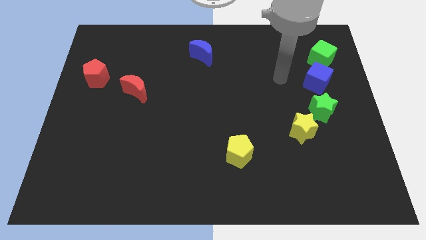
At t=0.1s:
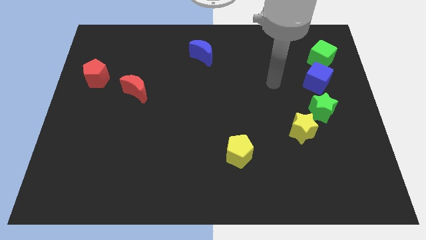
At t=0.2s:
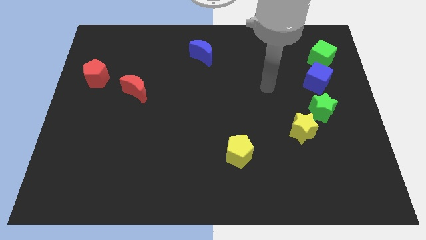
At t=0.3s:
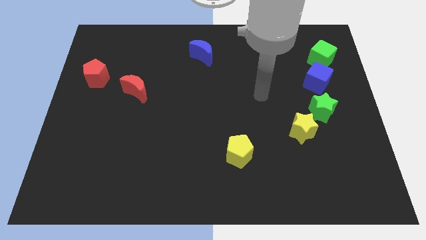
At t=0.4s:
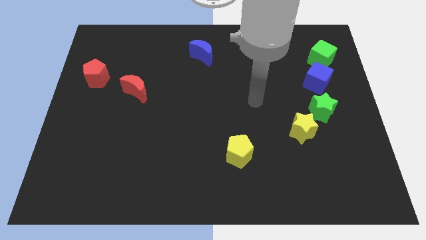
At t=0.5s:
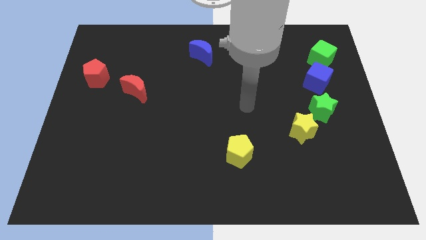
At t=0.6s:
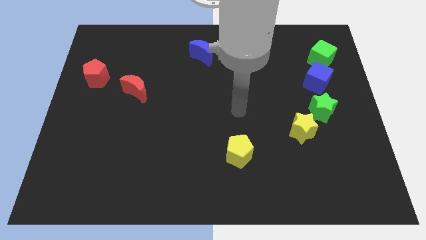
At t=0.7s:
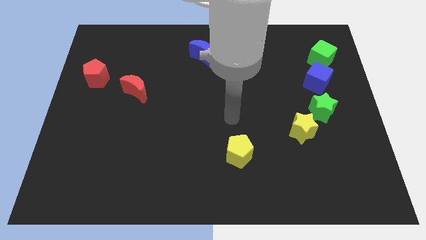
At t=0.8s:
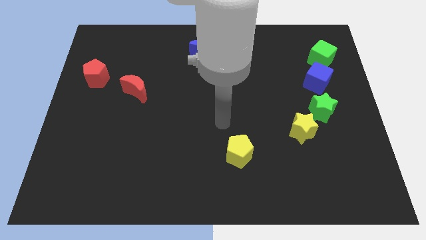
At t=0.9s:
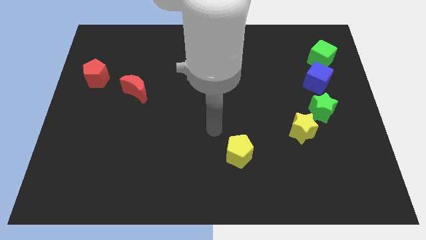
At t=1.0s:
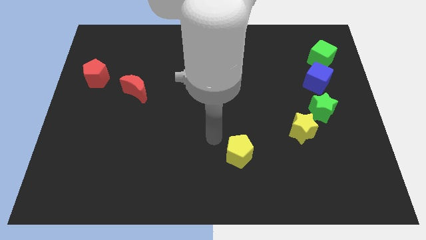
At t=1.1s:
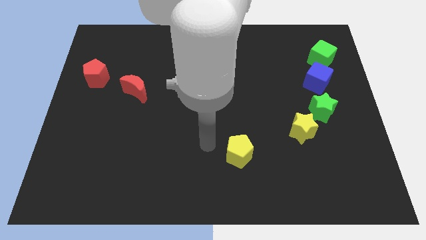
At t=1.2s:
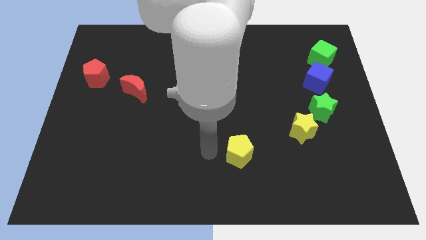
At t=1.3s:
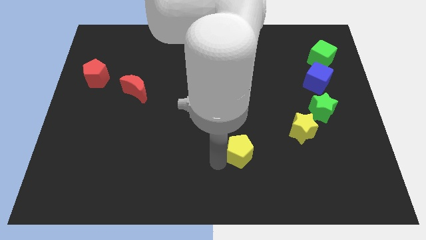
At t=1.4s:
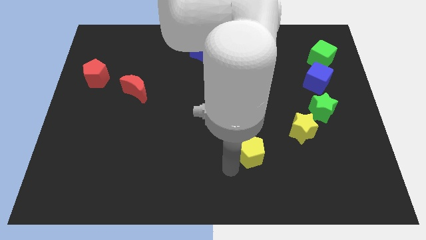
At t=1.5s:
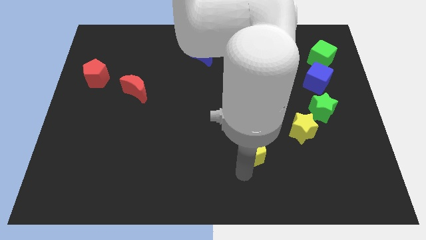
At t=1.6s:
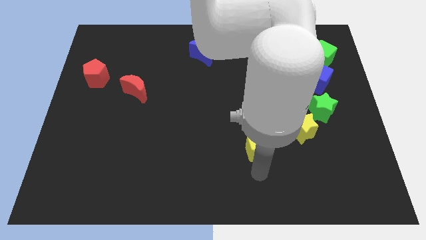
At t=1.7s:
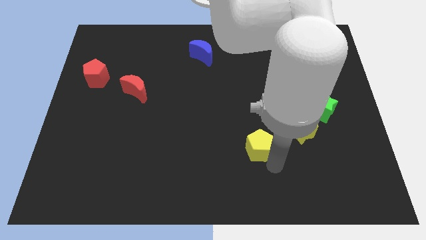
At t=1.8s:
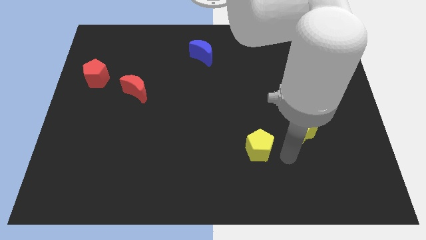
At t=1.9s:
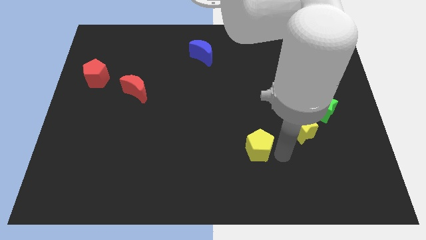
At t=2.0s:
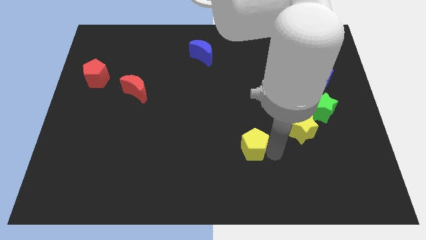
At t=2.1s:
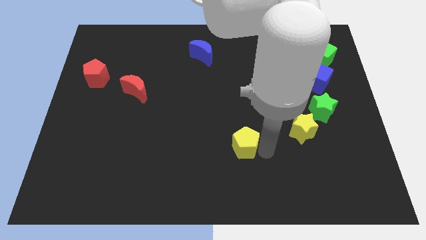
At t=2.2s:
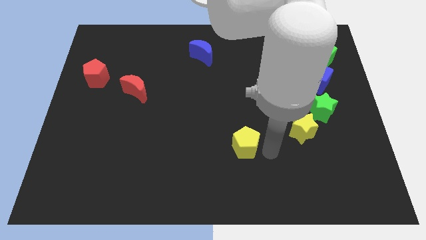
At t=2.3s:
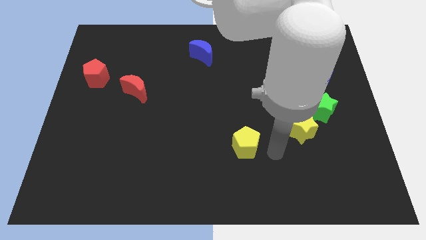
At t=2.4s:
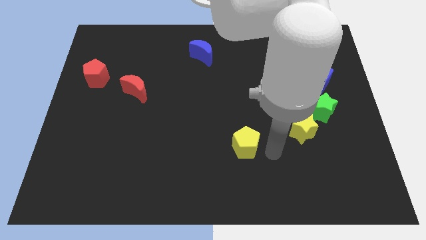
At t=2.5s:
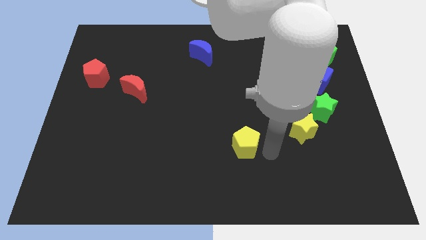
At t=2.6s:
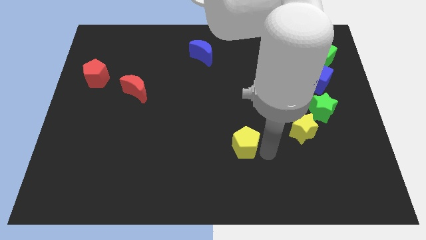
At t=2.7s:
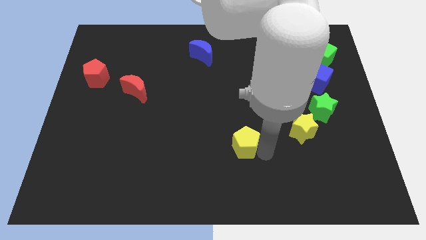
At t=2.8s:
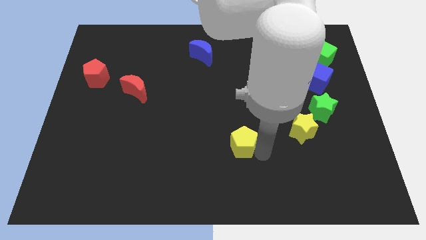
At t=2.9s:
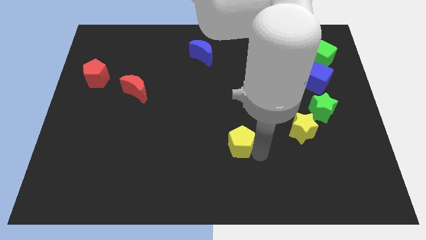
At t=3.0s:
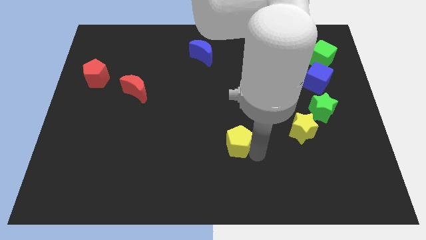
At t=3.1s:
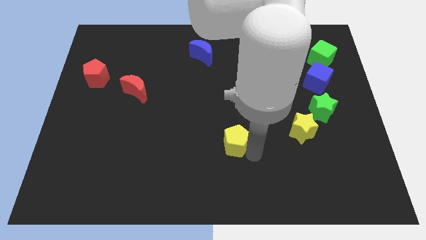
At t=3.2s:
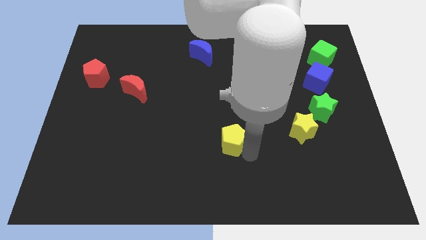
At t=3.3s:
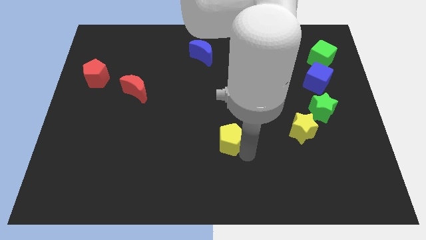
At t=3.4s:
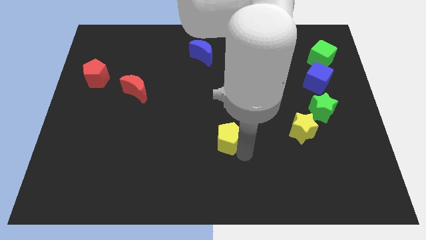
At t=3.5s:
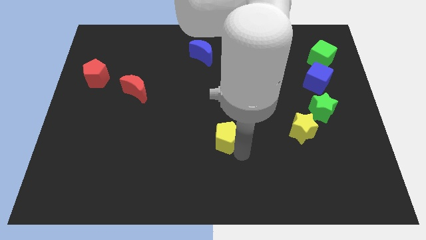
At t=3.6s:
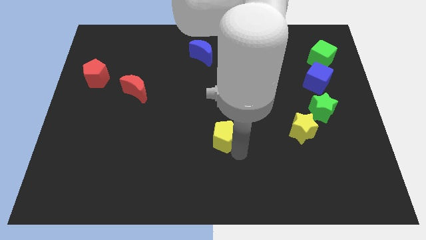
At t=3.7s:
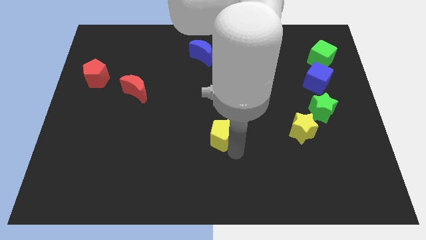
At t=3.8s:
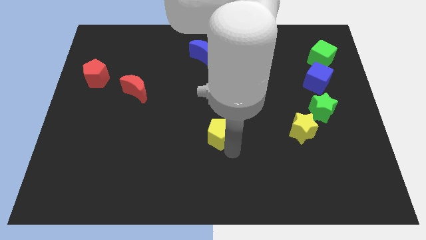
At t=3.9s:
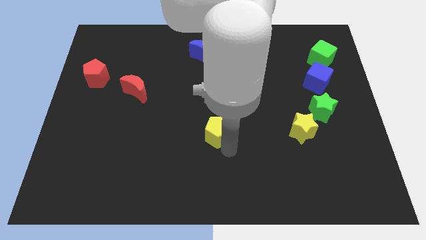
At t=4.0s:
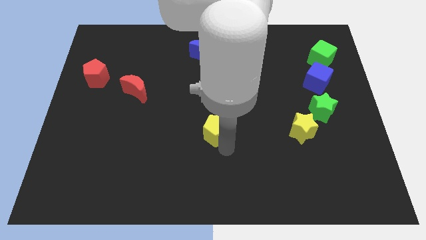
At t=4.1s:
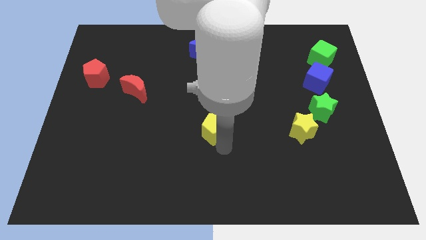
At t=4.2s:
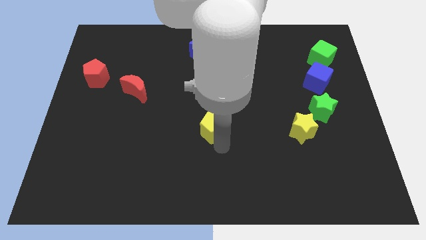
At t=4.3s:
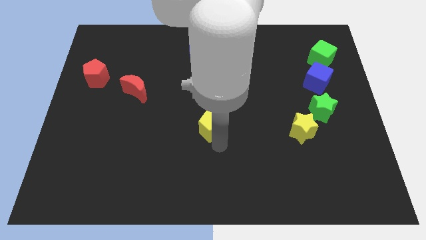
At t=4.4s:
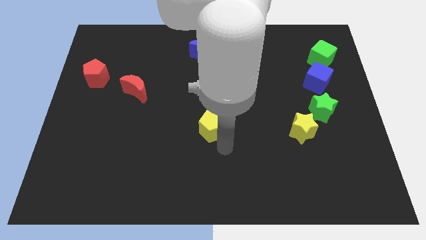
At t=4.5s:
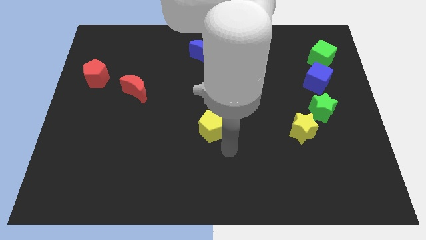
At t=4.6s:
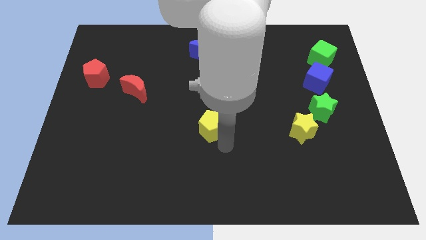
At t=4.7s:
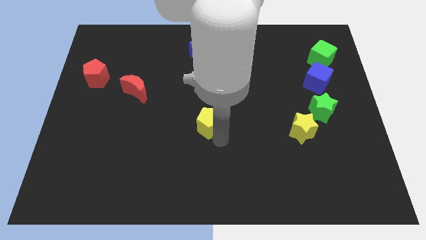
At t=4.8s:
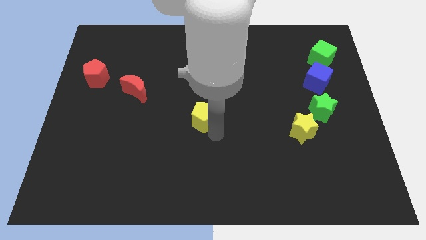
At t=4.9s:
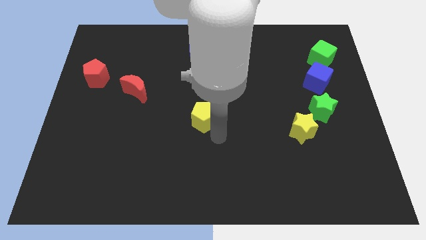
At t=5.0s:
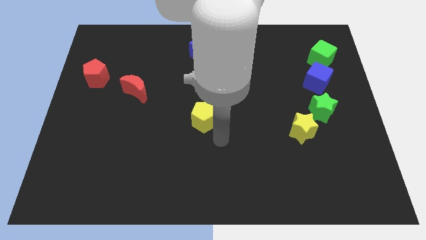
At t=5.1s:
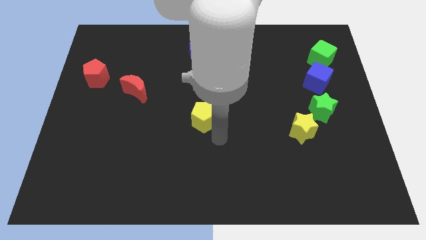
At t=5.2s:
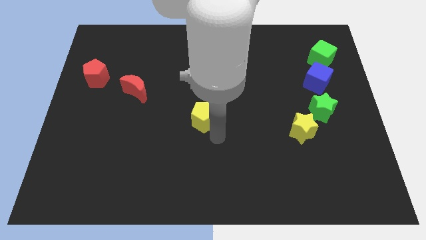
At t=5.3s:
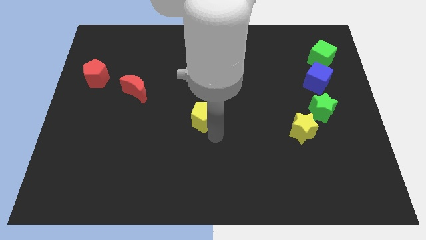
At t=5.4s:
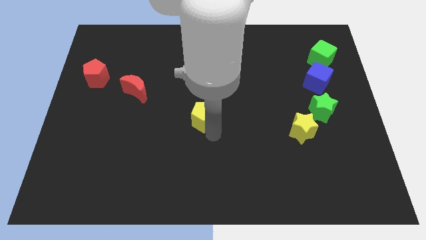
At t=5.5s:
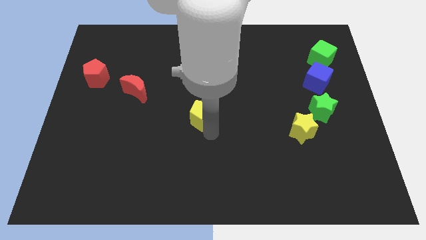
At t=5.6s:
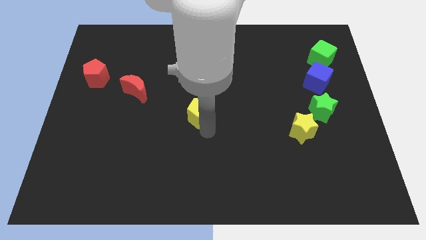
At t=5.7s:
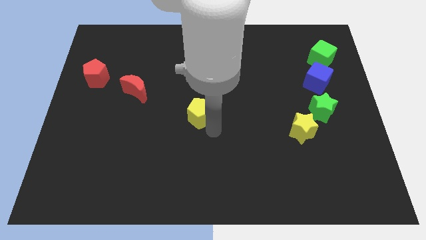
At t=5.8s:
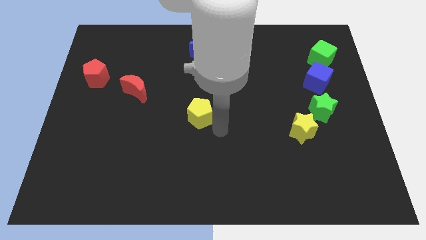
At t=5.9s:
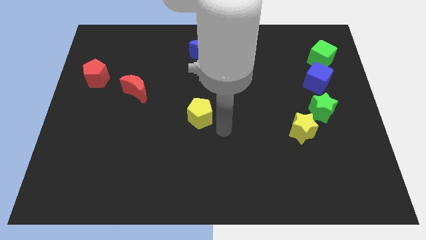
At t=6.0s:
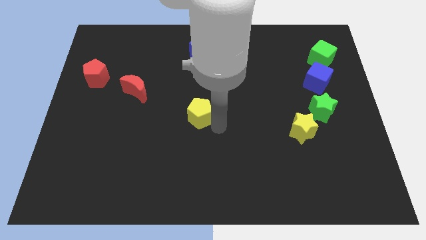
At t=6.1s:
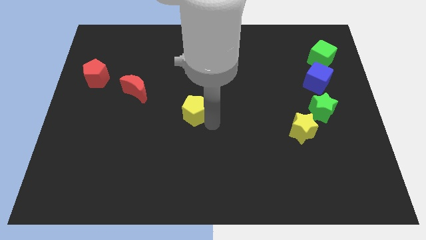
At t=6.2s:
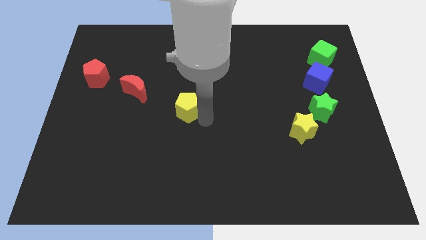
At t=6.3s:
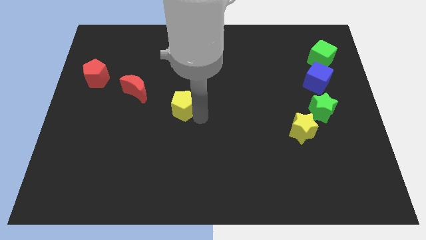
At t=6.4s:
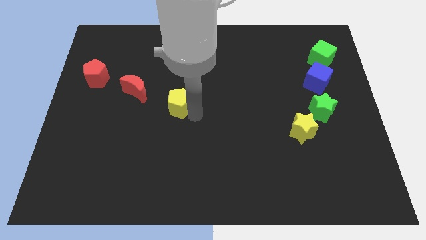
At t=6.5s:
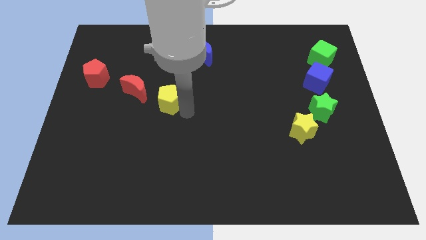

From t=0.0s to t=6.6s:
slide the yellow pentagon up and then to the left

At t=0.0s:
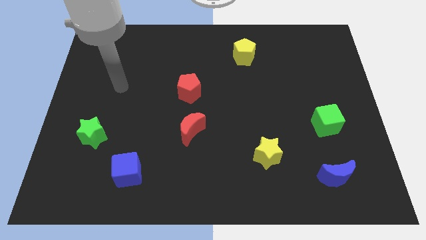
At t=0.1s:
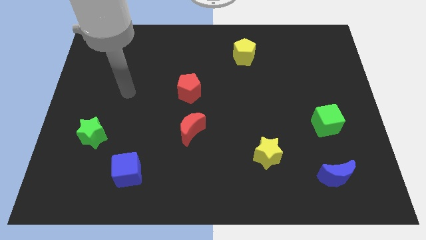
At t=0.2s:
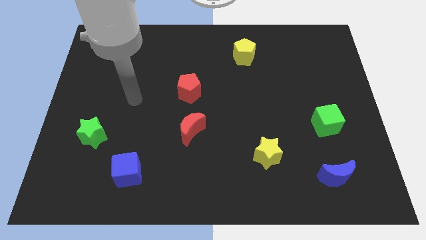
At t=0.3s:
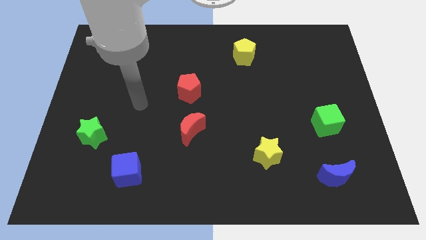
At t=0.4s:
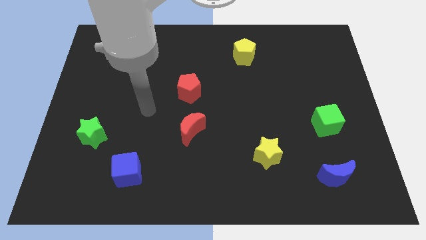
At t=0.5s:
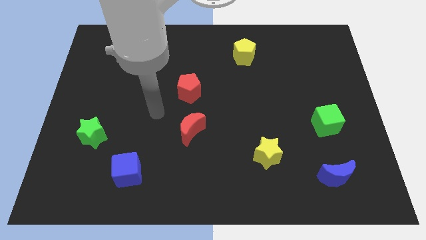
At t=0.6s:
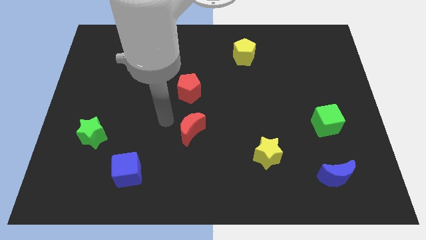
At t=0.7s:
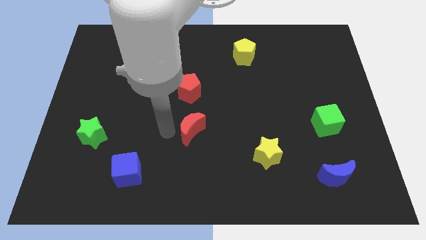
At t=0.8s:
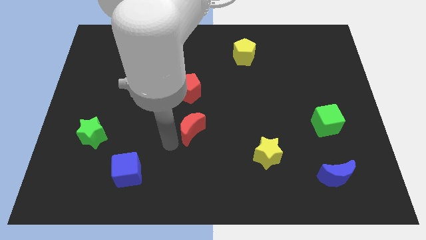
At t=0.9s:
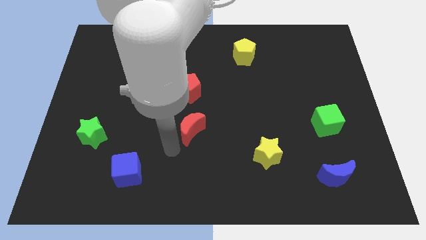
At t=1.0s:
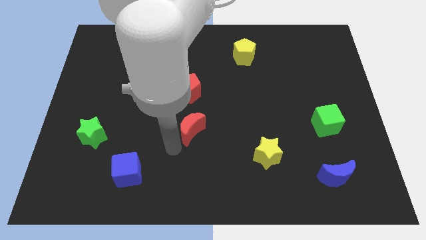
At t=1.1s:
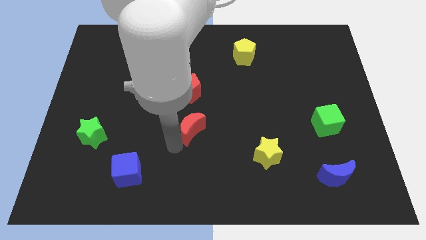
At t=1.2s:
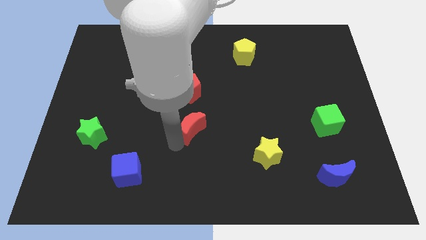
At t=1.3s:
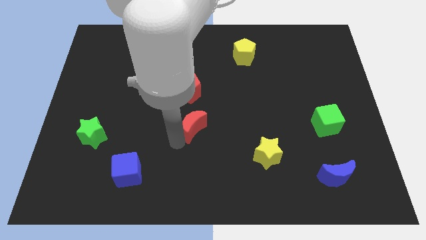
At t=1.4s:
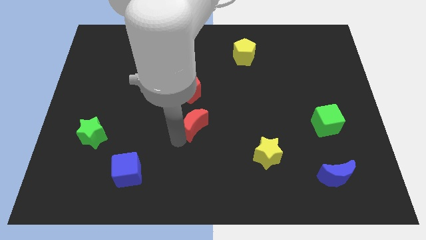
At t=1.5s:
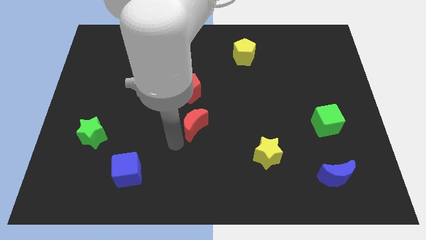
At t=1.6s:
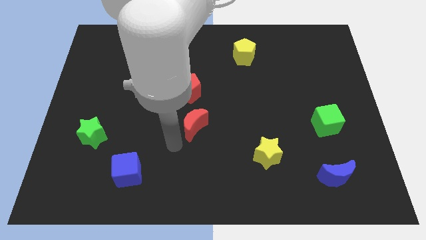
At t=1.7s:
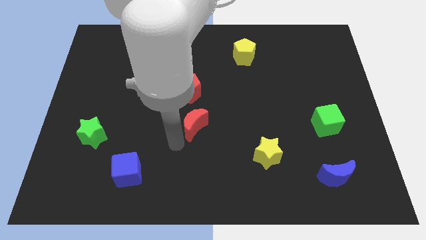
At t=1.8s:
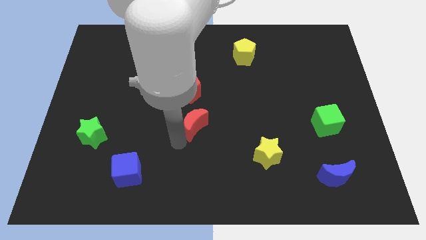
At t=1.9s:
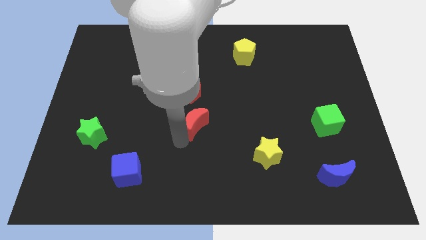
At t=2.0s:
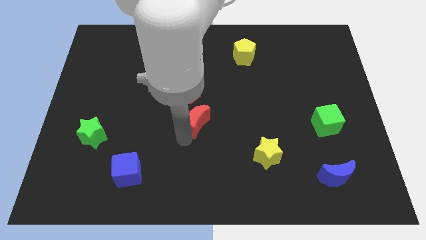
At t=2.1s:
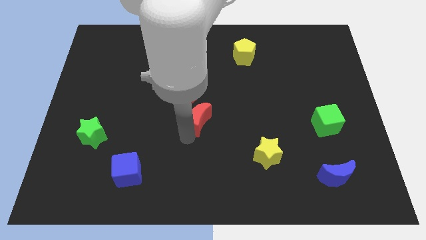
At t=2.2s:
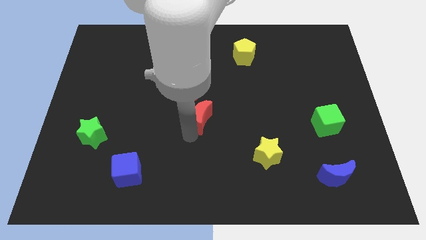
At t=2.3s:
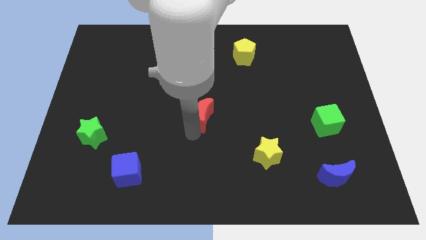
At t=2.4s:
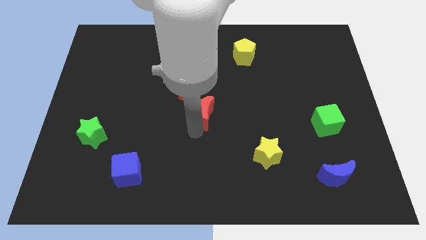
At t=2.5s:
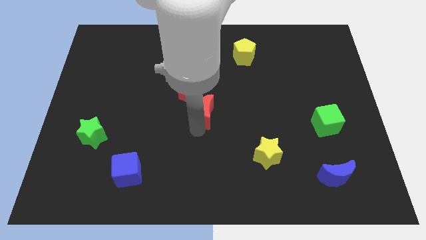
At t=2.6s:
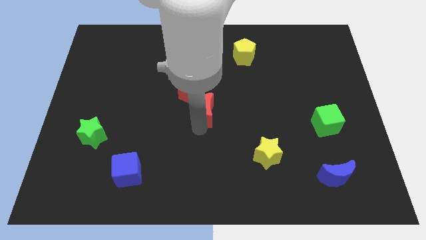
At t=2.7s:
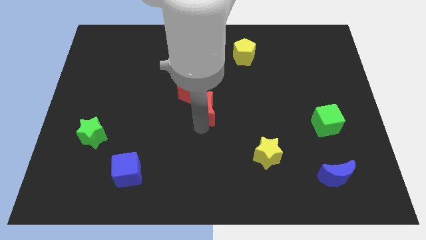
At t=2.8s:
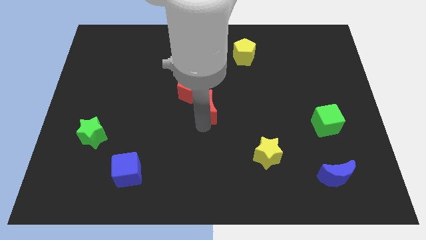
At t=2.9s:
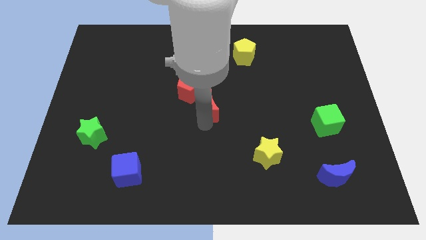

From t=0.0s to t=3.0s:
push the red moon upwards and to the right diagonally somewhat
